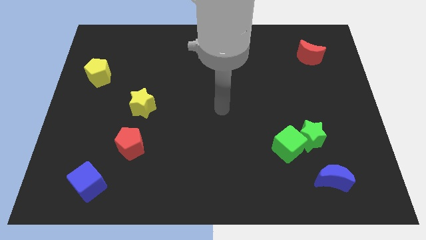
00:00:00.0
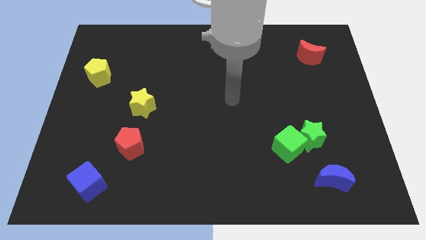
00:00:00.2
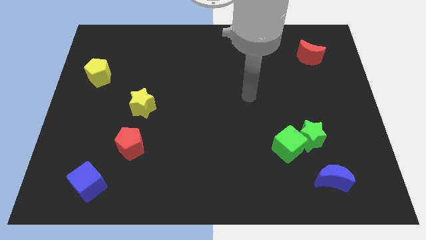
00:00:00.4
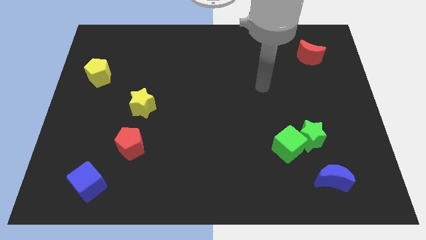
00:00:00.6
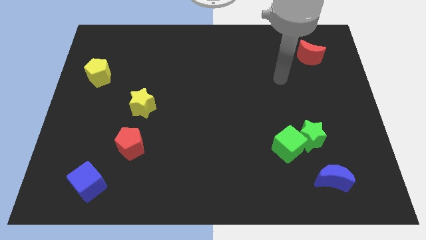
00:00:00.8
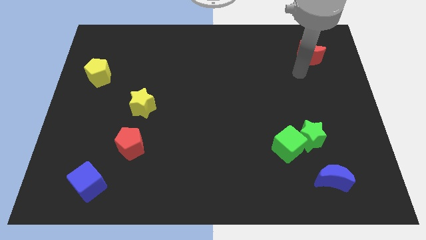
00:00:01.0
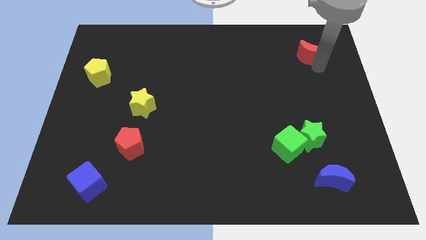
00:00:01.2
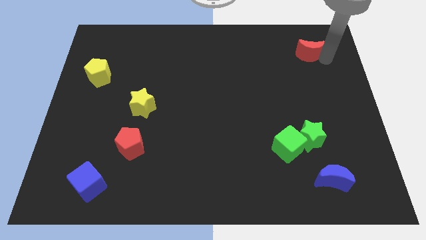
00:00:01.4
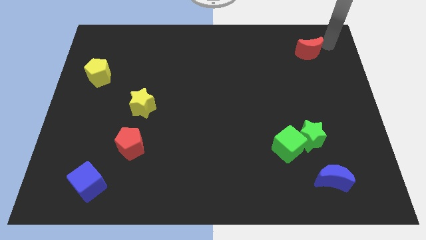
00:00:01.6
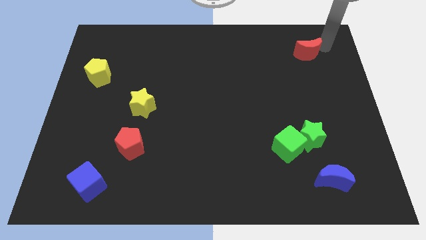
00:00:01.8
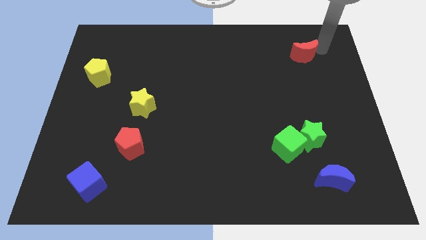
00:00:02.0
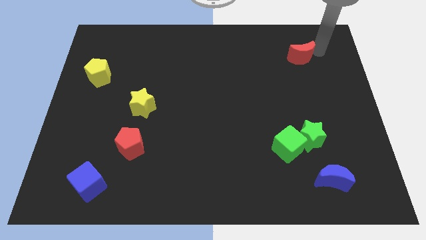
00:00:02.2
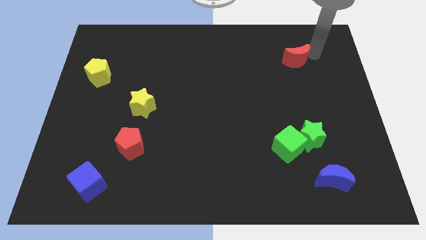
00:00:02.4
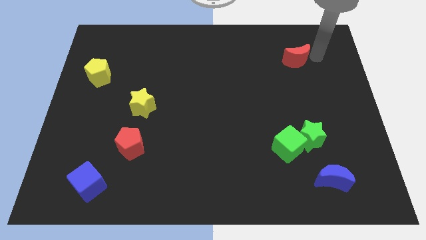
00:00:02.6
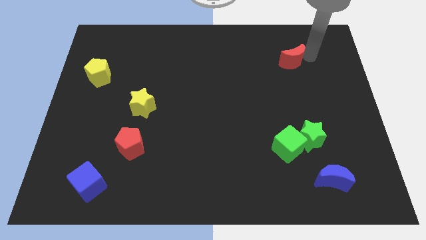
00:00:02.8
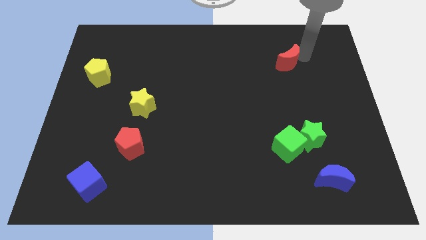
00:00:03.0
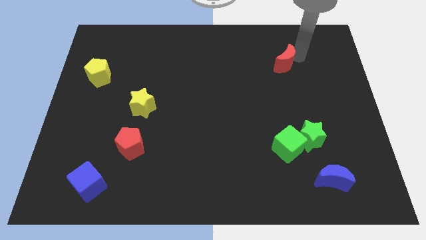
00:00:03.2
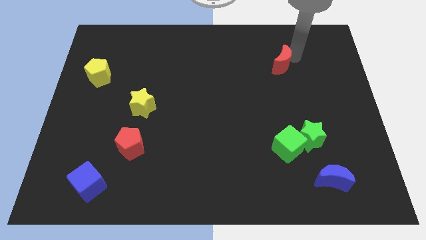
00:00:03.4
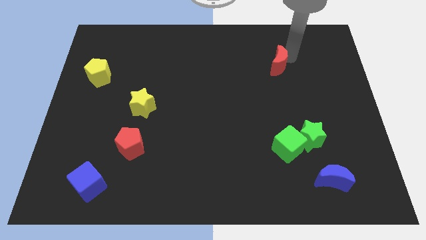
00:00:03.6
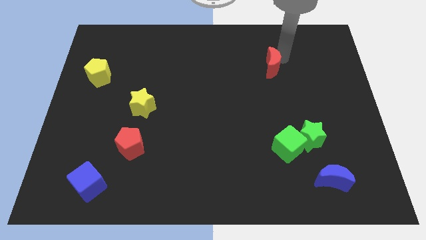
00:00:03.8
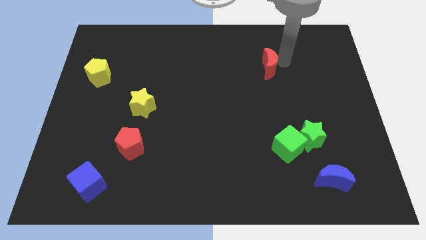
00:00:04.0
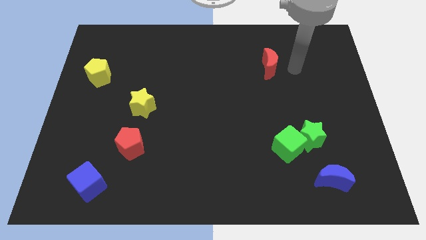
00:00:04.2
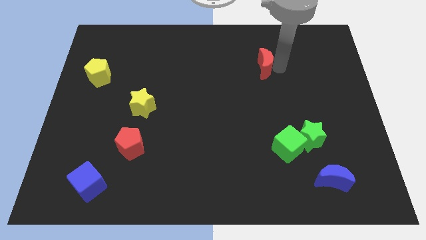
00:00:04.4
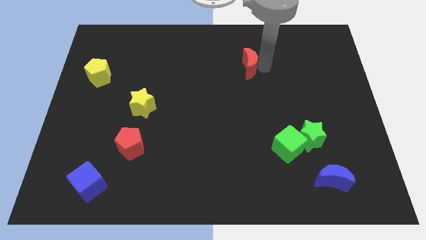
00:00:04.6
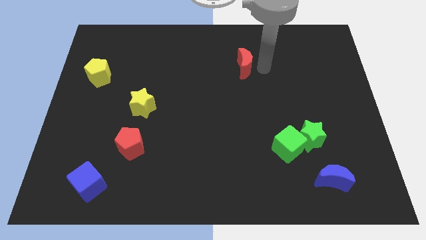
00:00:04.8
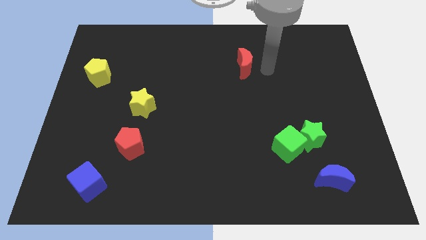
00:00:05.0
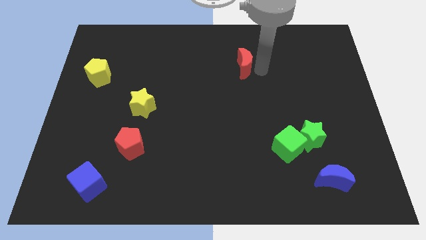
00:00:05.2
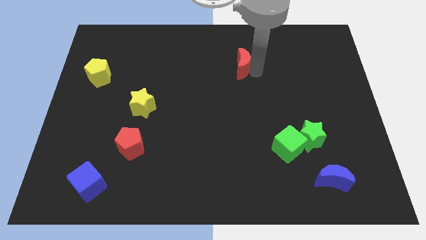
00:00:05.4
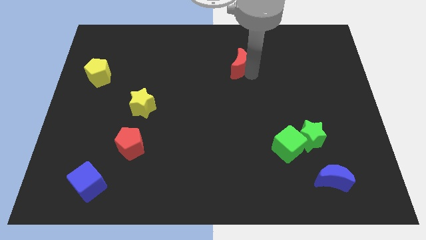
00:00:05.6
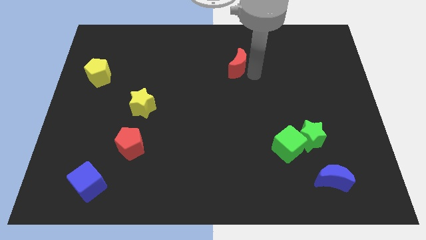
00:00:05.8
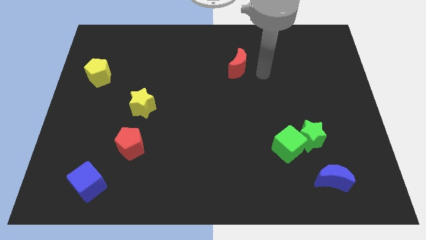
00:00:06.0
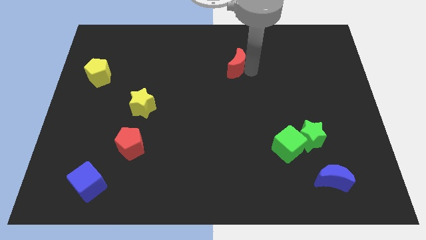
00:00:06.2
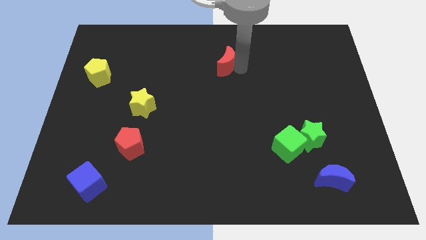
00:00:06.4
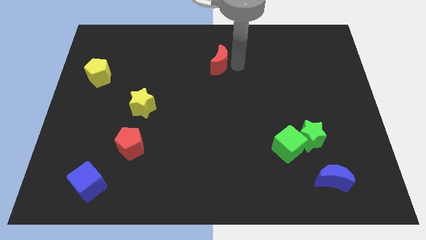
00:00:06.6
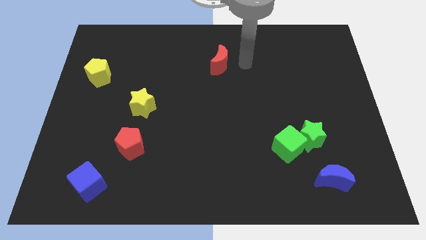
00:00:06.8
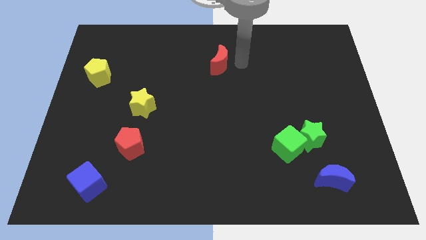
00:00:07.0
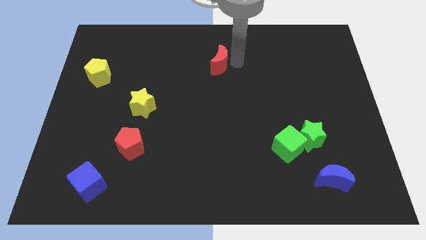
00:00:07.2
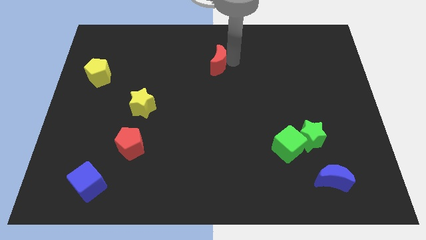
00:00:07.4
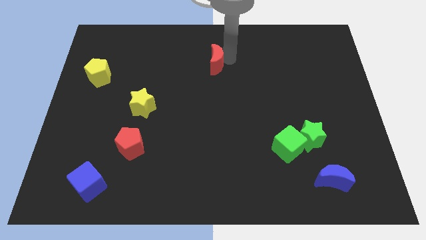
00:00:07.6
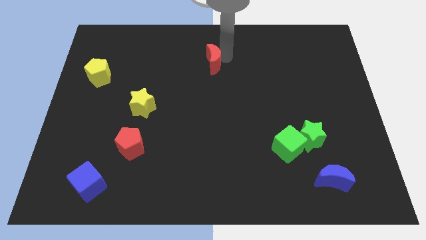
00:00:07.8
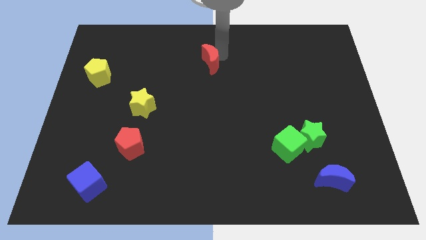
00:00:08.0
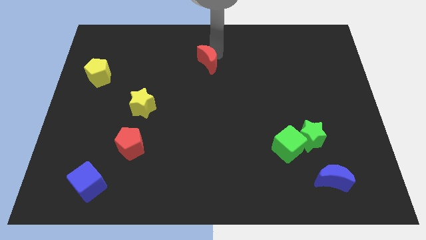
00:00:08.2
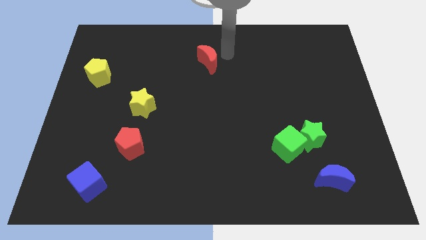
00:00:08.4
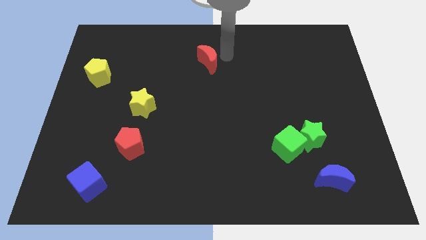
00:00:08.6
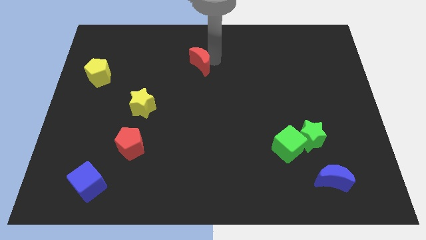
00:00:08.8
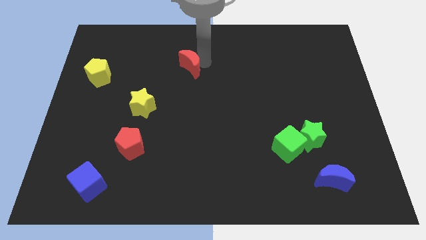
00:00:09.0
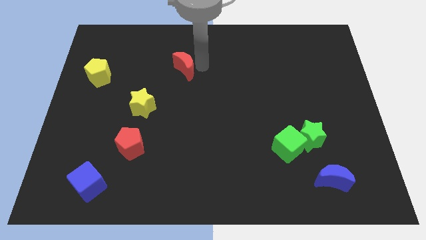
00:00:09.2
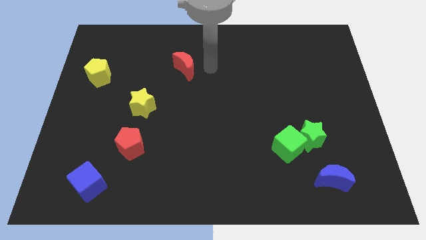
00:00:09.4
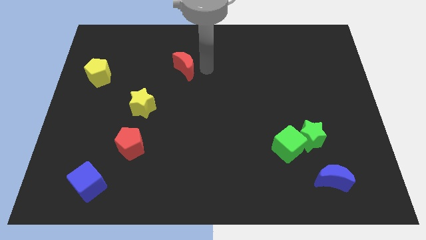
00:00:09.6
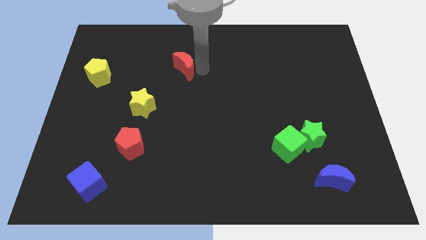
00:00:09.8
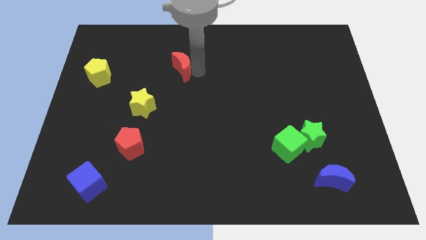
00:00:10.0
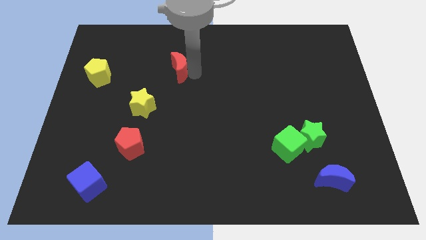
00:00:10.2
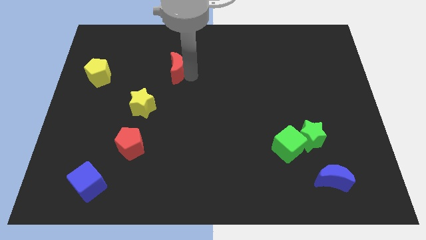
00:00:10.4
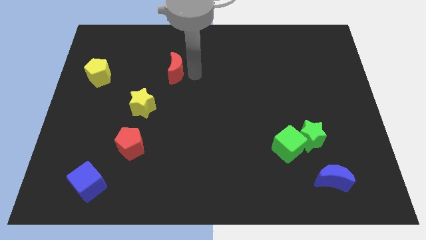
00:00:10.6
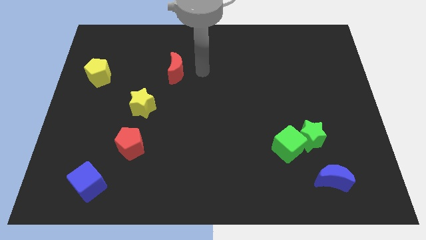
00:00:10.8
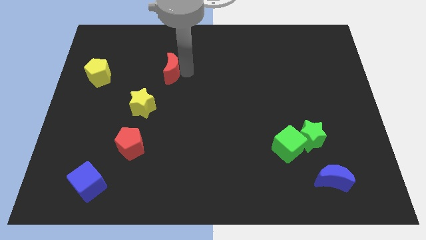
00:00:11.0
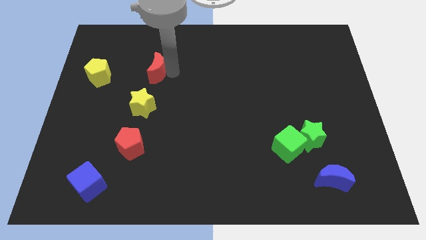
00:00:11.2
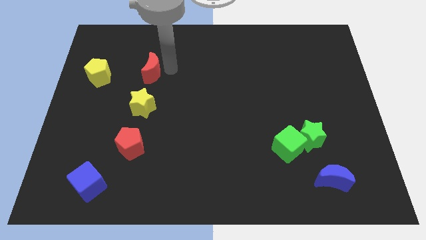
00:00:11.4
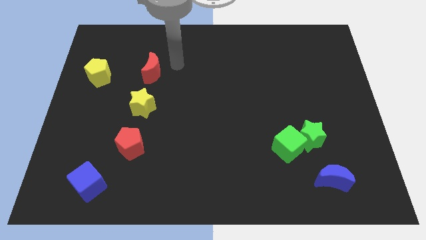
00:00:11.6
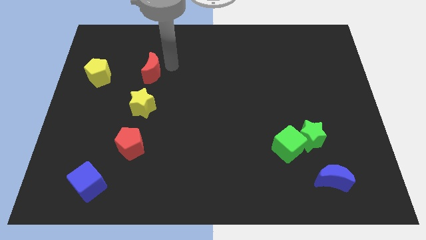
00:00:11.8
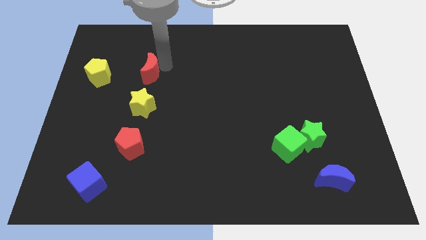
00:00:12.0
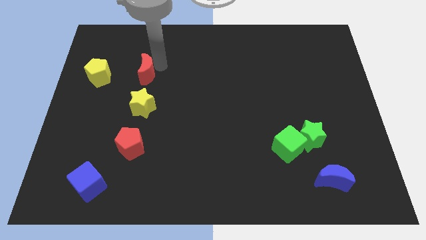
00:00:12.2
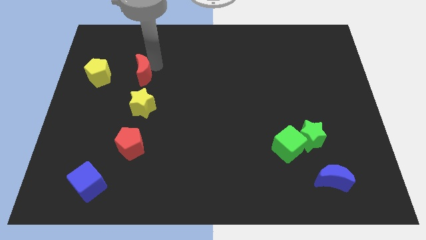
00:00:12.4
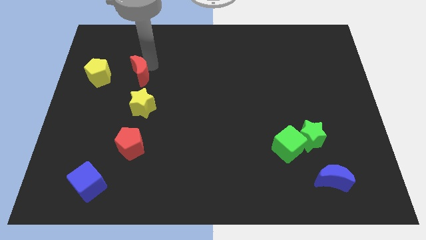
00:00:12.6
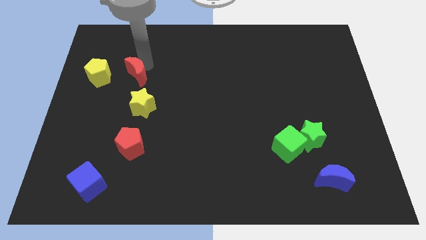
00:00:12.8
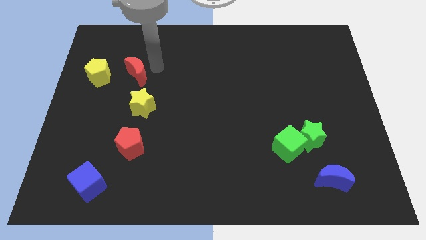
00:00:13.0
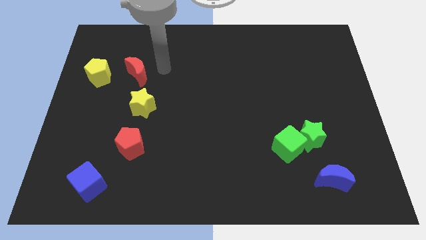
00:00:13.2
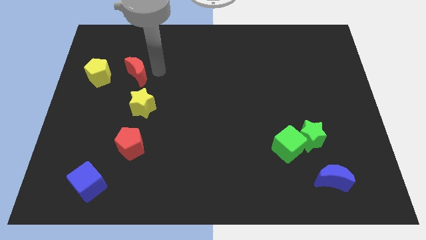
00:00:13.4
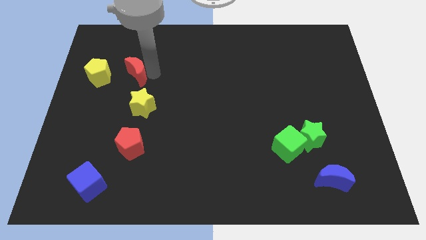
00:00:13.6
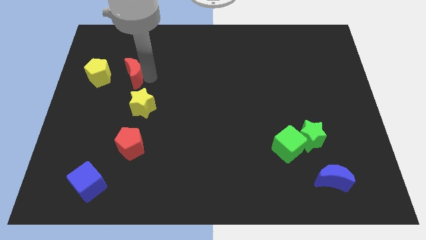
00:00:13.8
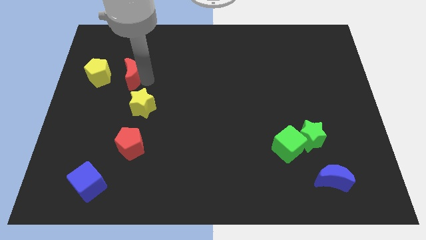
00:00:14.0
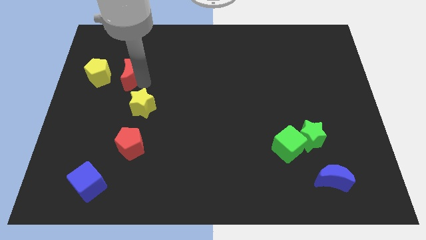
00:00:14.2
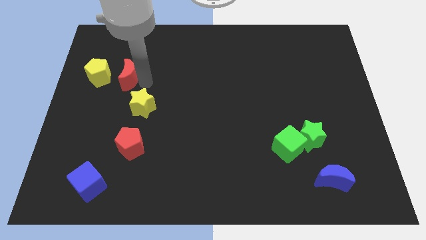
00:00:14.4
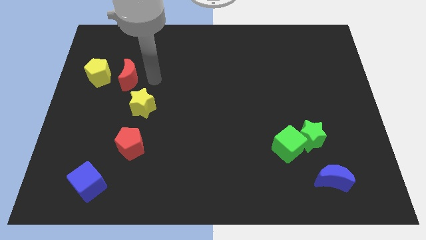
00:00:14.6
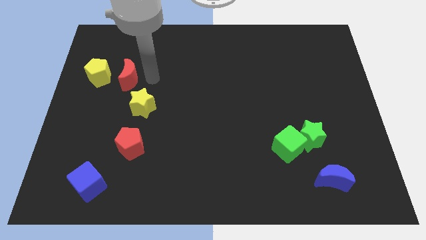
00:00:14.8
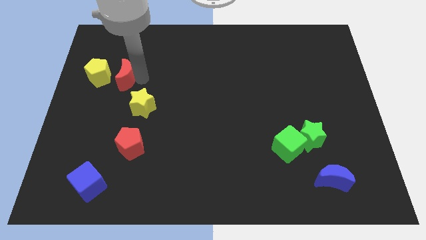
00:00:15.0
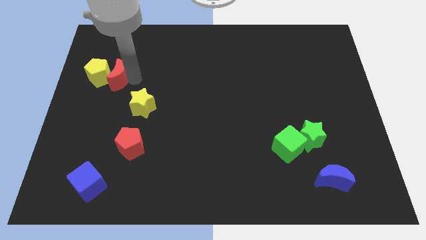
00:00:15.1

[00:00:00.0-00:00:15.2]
push the red moon towards the yellow pentagon
